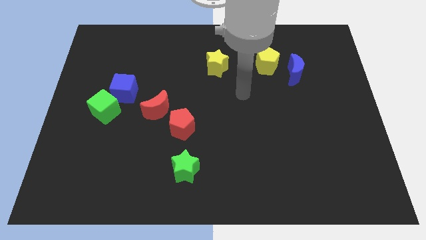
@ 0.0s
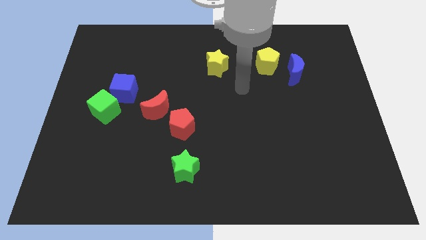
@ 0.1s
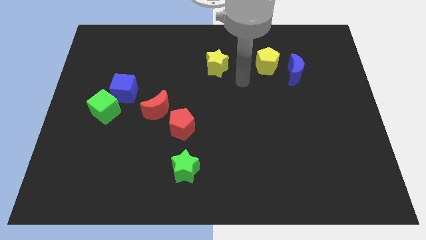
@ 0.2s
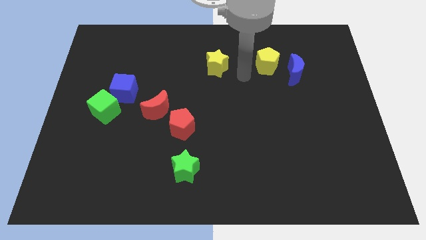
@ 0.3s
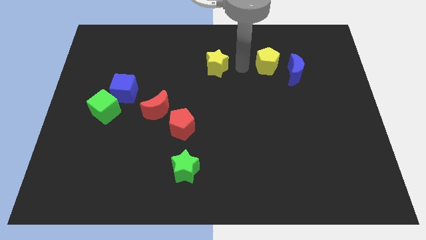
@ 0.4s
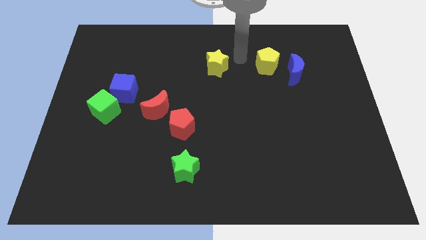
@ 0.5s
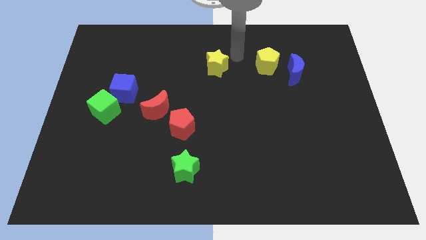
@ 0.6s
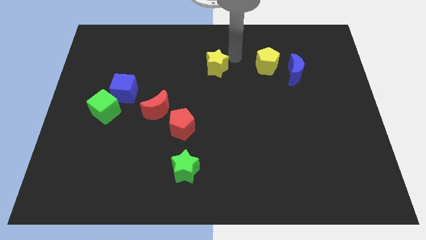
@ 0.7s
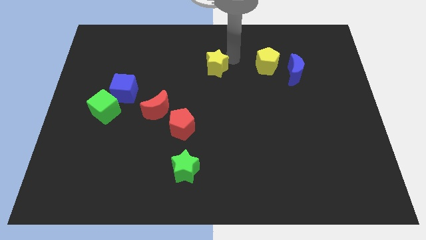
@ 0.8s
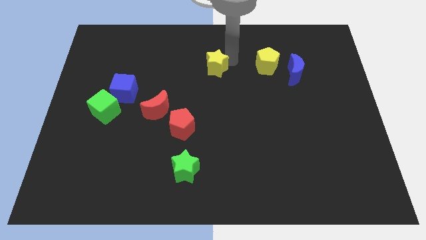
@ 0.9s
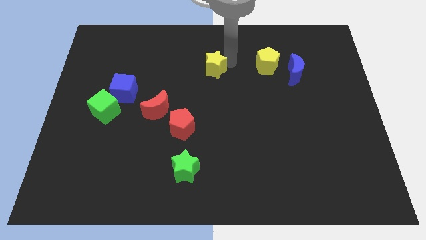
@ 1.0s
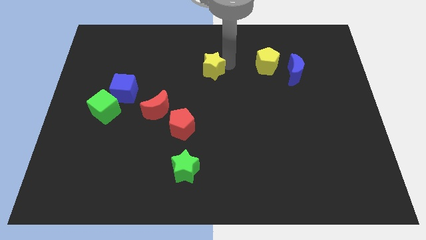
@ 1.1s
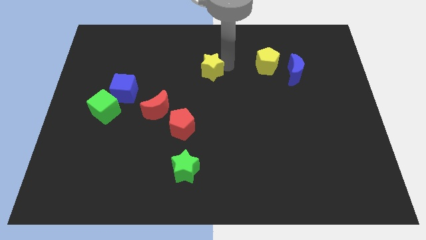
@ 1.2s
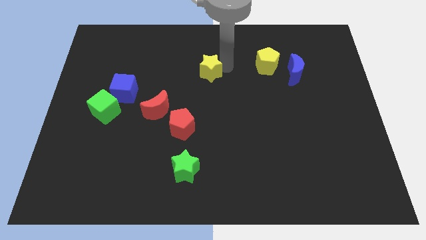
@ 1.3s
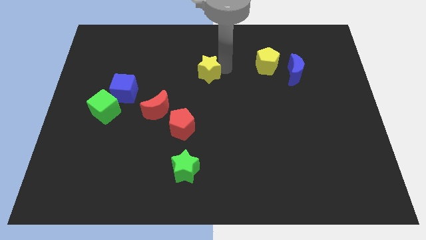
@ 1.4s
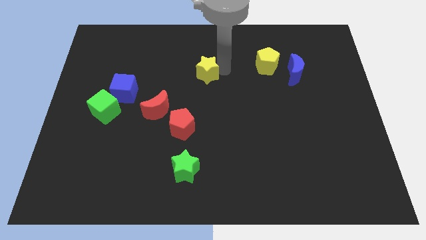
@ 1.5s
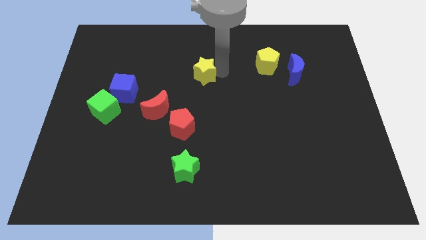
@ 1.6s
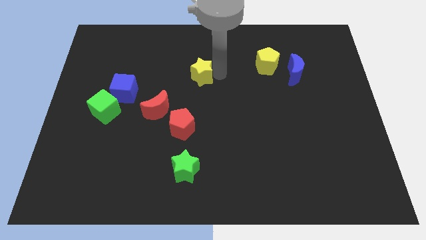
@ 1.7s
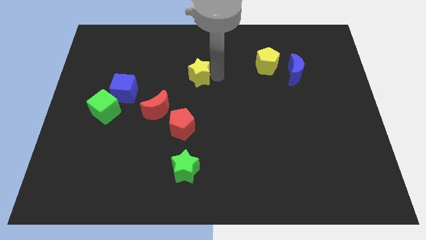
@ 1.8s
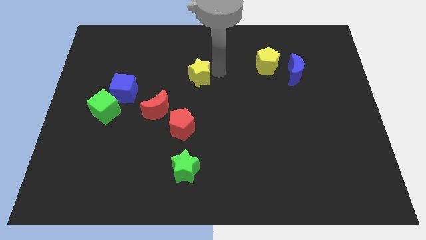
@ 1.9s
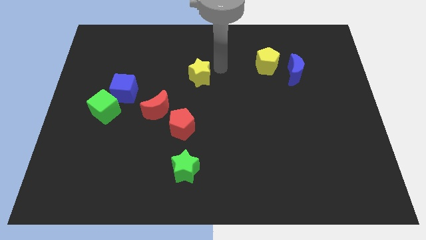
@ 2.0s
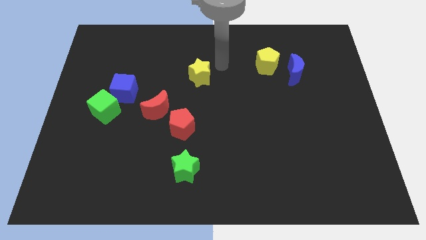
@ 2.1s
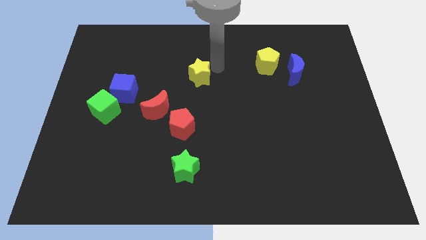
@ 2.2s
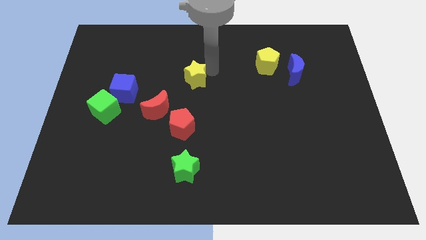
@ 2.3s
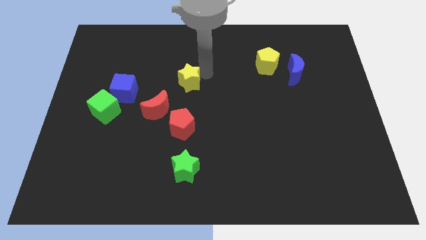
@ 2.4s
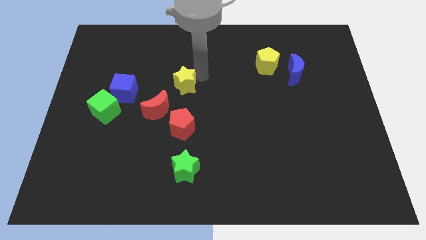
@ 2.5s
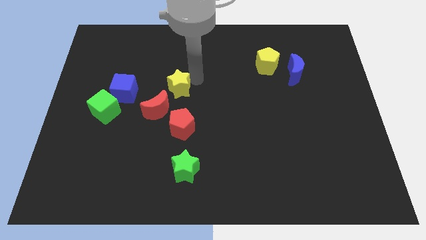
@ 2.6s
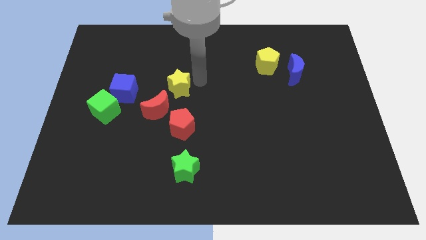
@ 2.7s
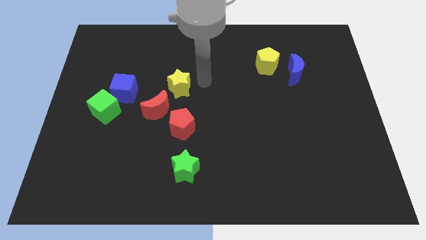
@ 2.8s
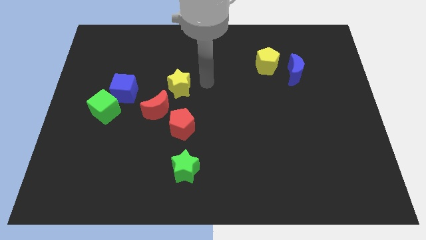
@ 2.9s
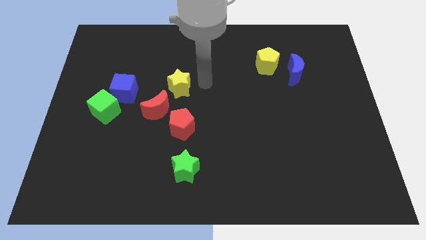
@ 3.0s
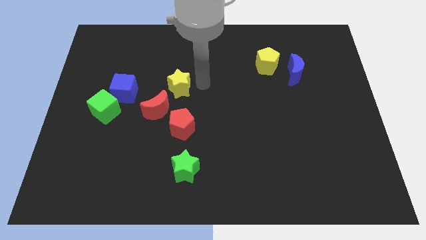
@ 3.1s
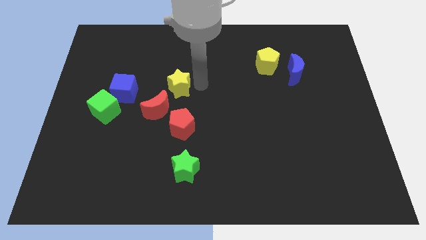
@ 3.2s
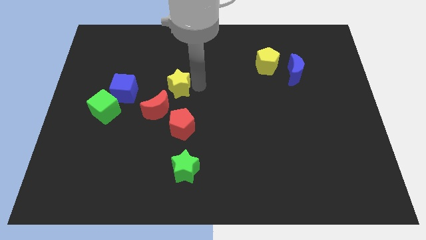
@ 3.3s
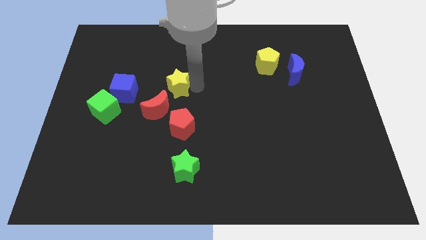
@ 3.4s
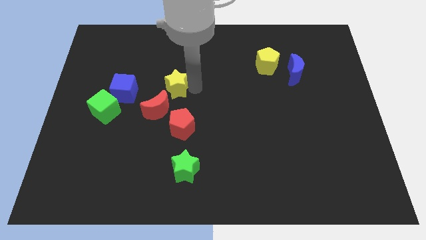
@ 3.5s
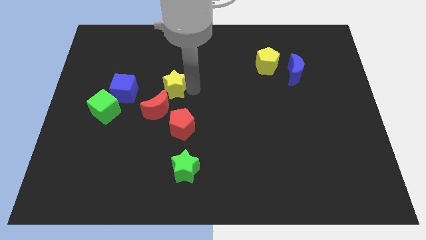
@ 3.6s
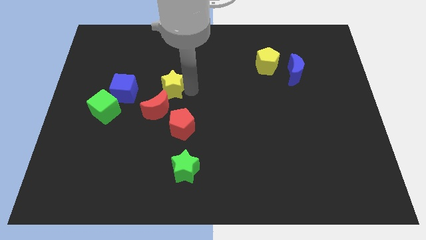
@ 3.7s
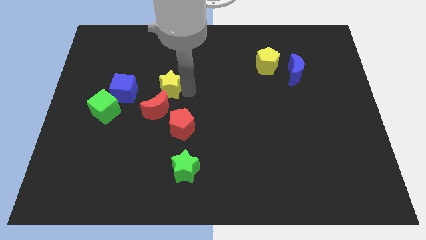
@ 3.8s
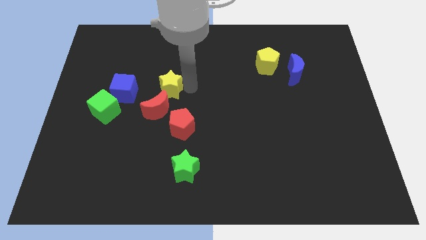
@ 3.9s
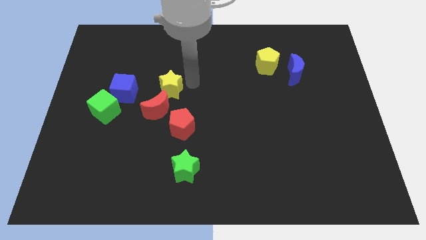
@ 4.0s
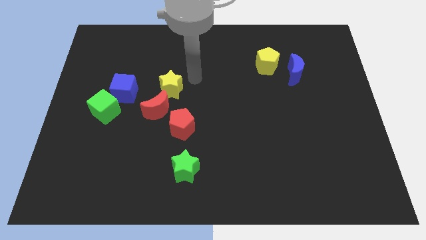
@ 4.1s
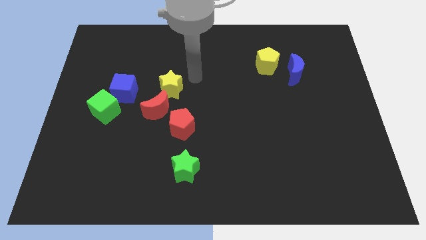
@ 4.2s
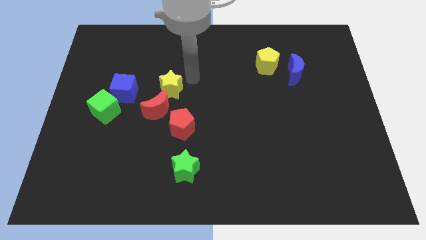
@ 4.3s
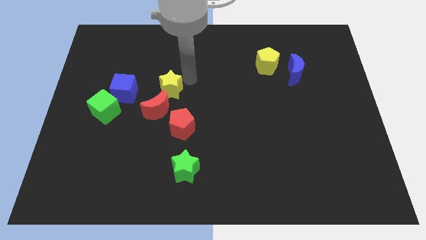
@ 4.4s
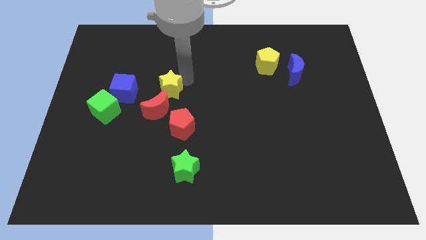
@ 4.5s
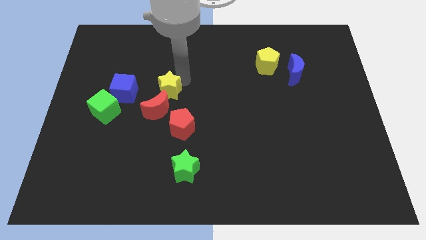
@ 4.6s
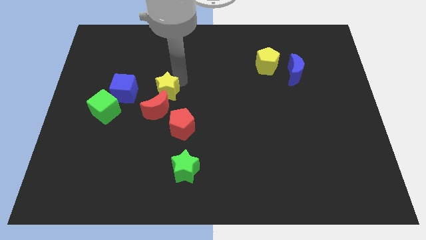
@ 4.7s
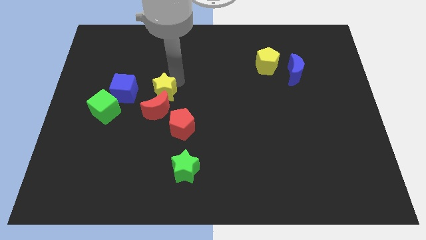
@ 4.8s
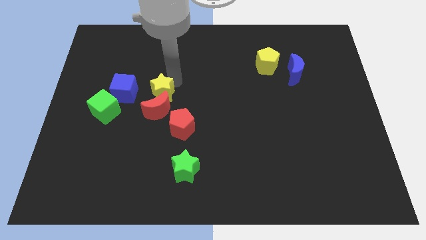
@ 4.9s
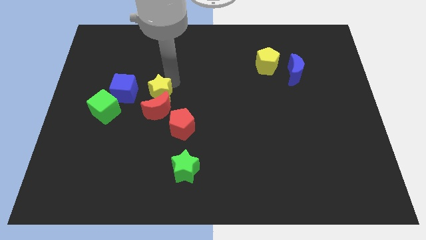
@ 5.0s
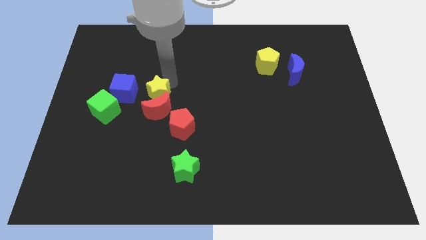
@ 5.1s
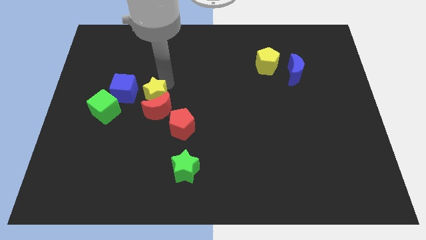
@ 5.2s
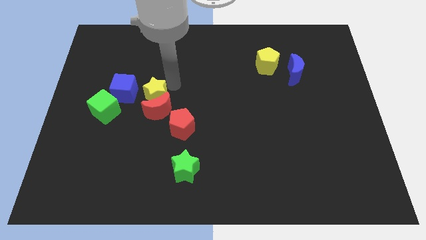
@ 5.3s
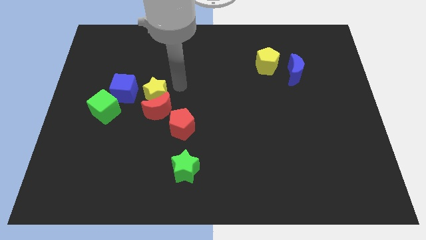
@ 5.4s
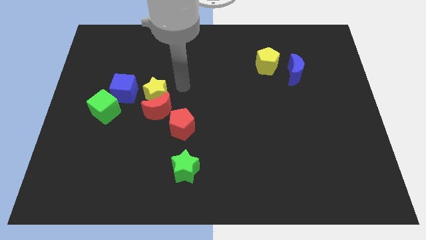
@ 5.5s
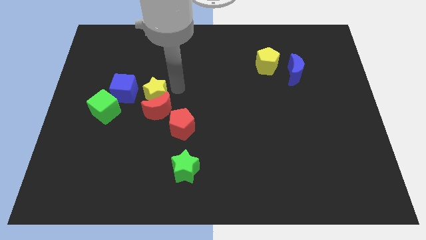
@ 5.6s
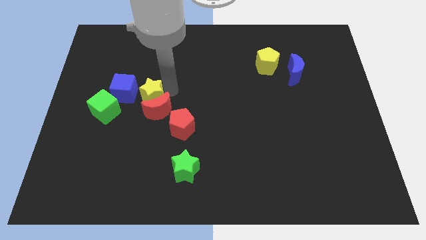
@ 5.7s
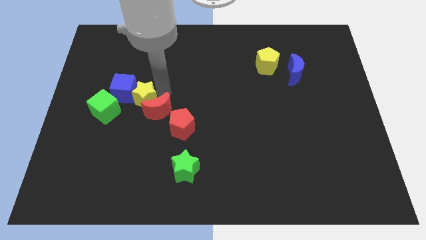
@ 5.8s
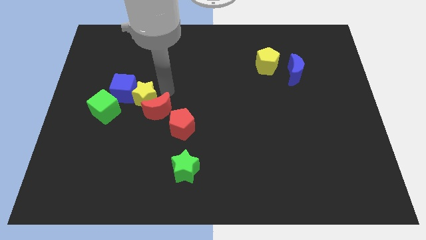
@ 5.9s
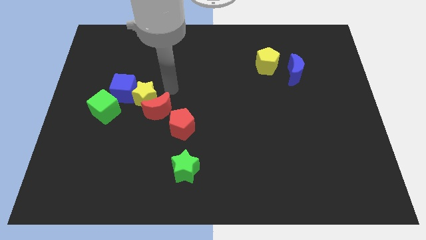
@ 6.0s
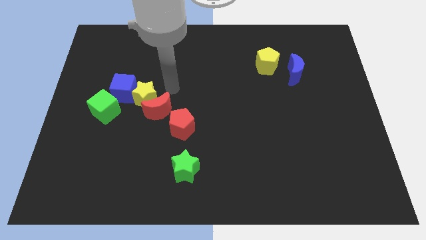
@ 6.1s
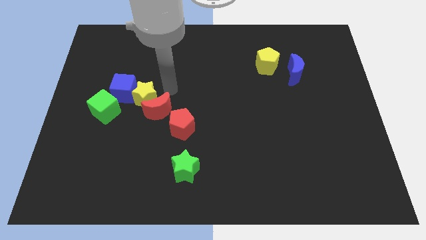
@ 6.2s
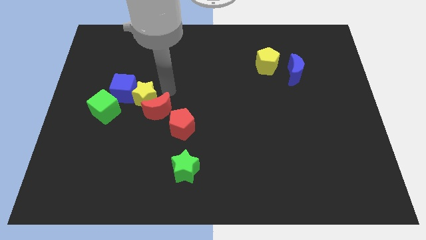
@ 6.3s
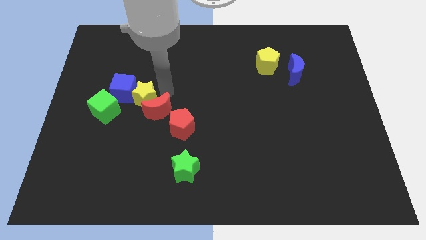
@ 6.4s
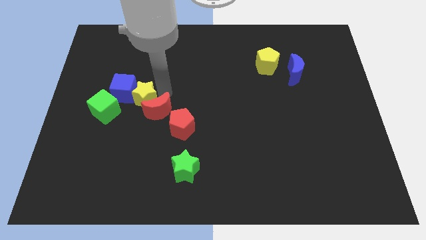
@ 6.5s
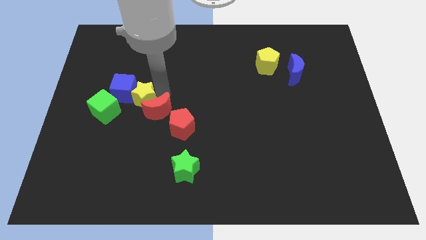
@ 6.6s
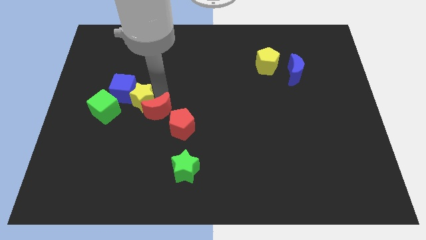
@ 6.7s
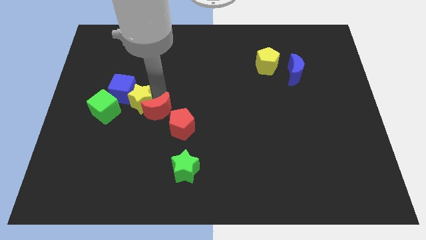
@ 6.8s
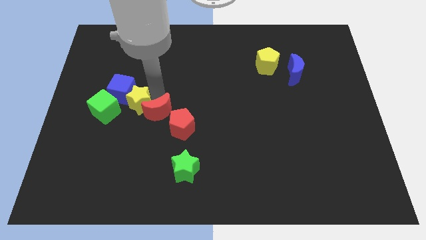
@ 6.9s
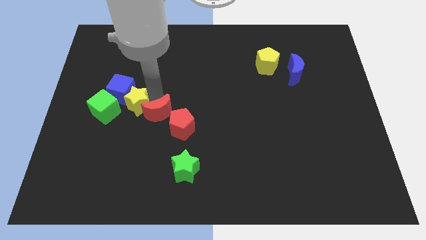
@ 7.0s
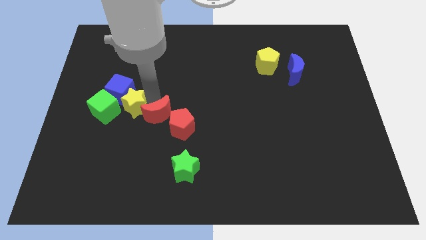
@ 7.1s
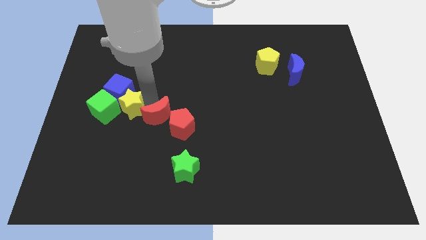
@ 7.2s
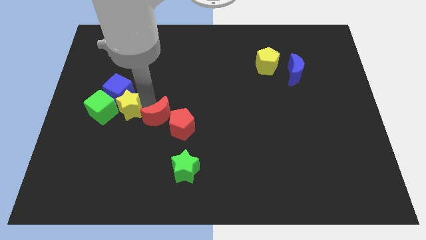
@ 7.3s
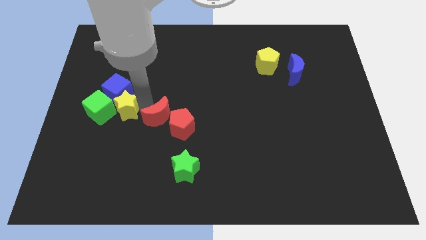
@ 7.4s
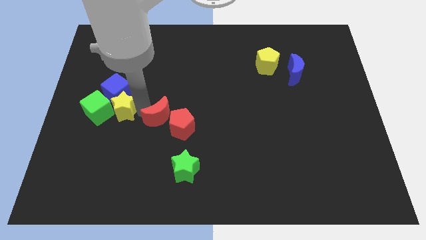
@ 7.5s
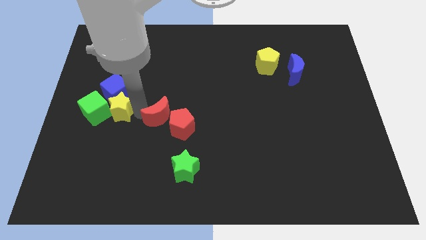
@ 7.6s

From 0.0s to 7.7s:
push the yellow star close to the green cube
